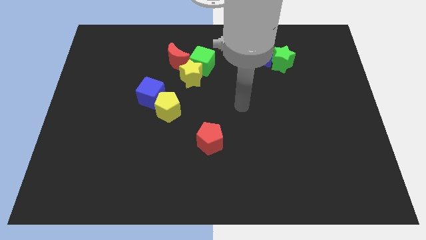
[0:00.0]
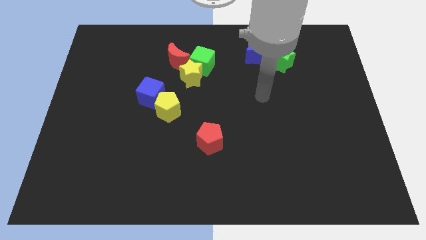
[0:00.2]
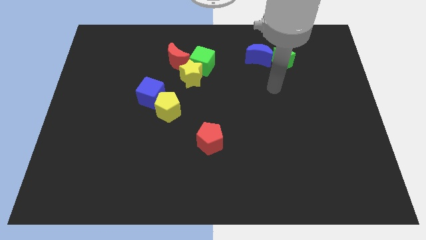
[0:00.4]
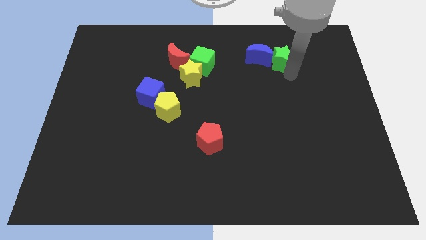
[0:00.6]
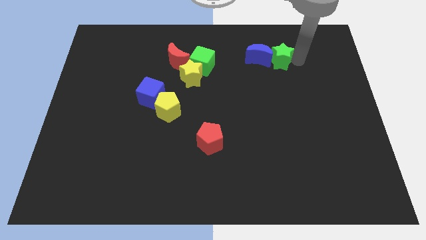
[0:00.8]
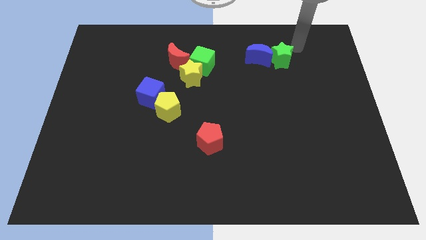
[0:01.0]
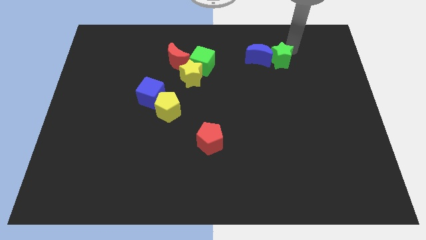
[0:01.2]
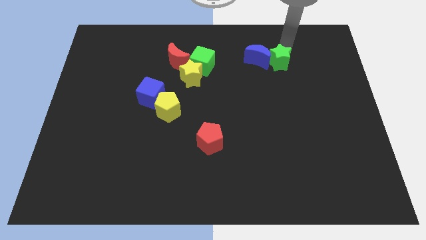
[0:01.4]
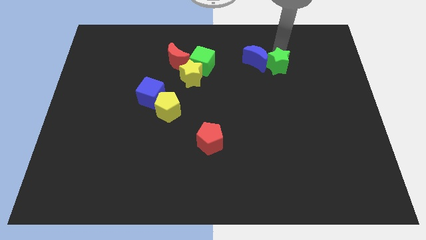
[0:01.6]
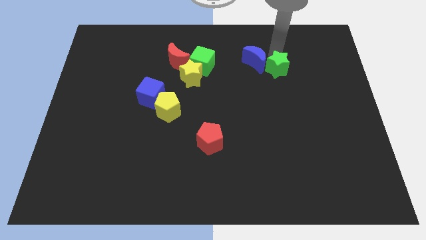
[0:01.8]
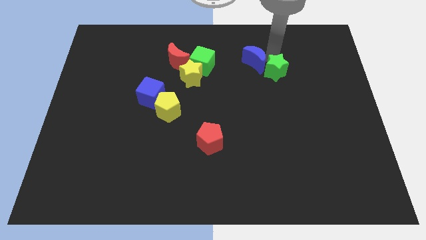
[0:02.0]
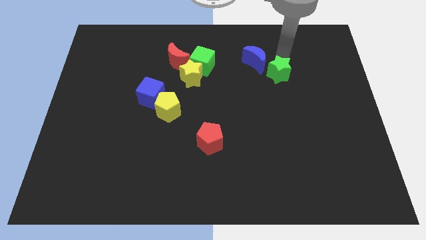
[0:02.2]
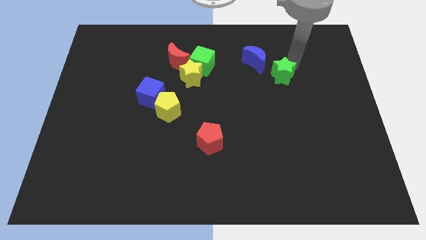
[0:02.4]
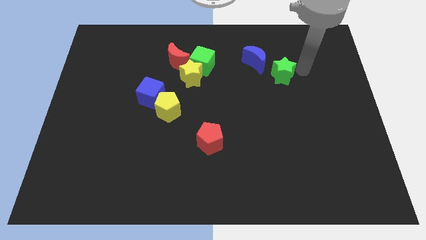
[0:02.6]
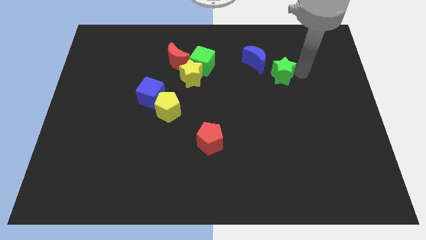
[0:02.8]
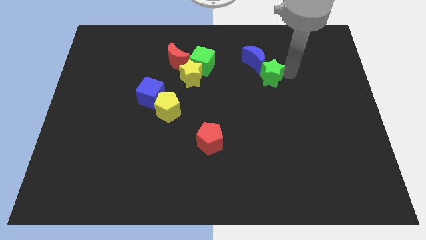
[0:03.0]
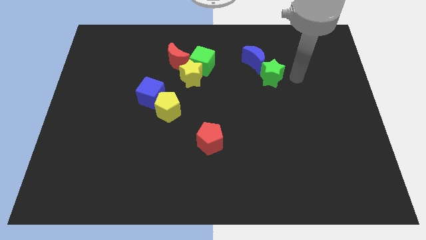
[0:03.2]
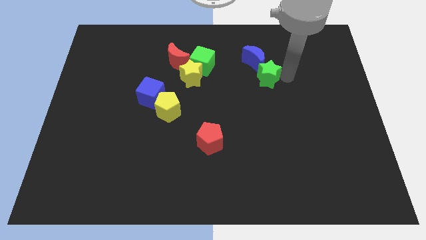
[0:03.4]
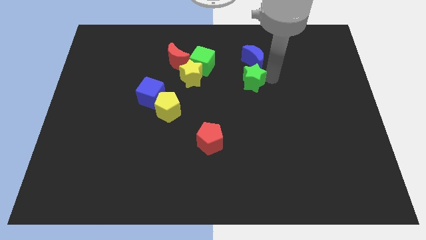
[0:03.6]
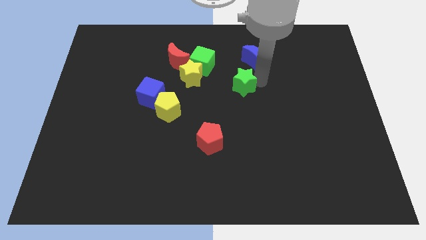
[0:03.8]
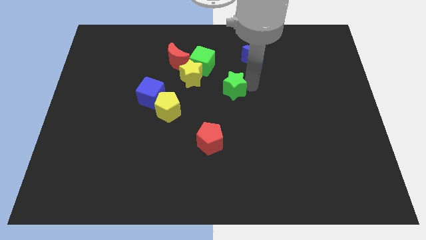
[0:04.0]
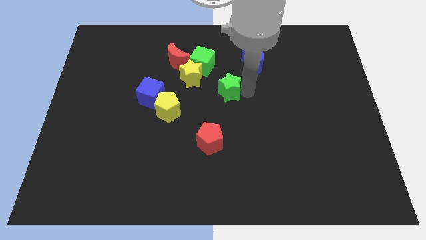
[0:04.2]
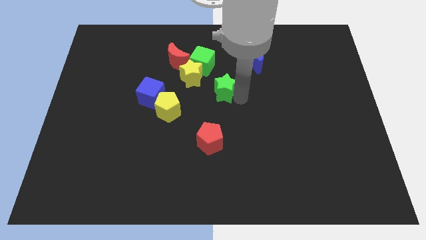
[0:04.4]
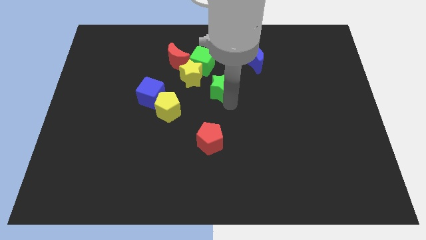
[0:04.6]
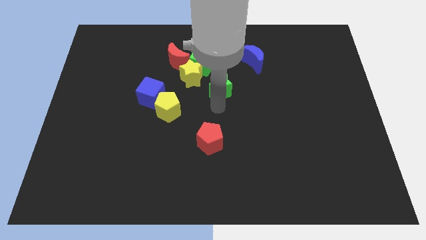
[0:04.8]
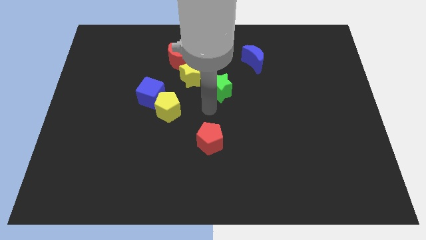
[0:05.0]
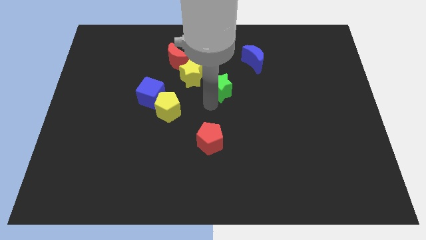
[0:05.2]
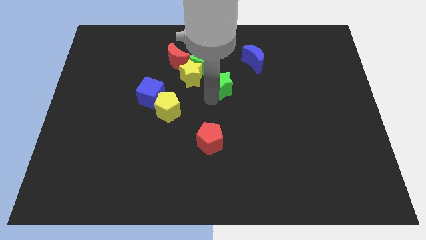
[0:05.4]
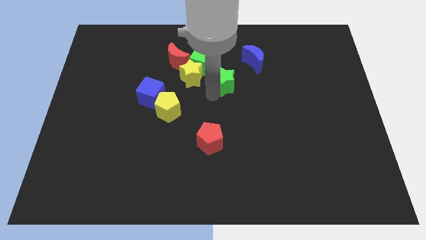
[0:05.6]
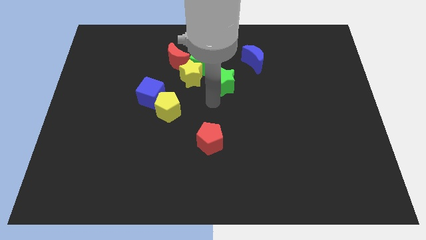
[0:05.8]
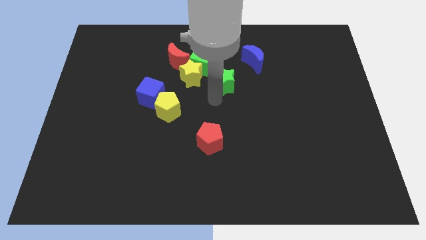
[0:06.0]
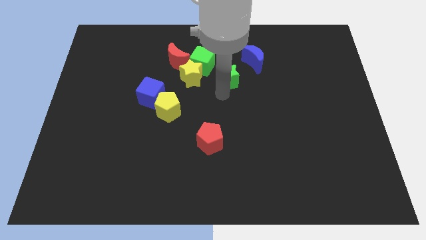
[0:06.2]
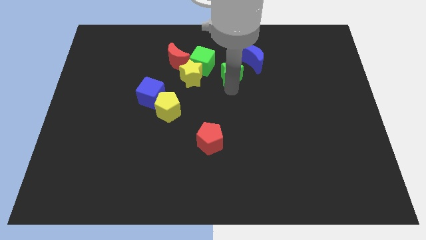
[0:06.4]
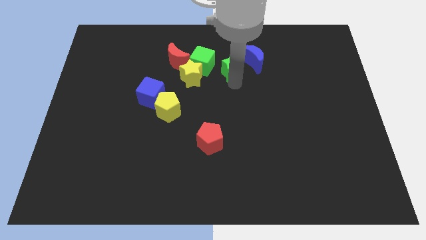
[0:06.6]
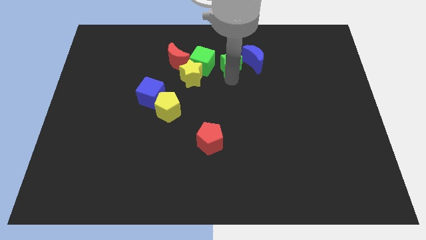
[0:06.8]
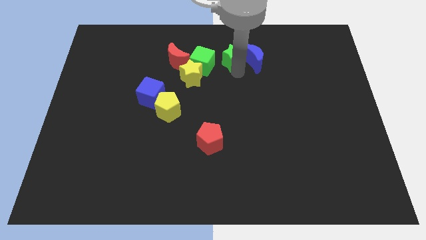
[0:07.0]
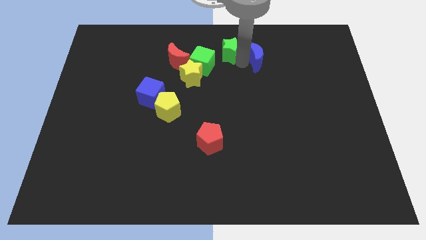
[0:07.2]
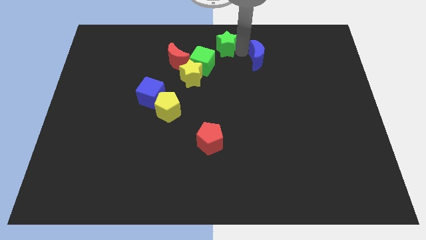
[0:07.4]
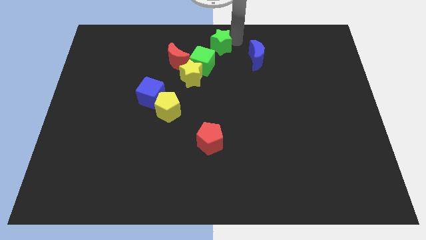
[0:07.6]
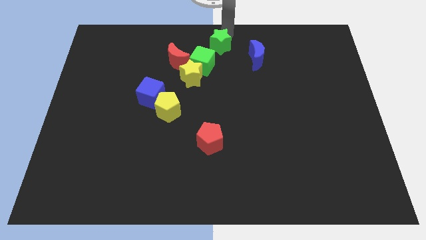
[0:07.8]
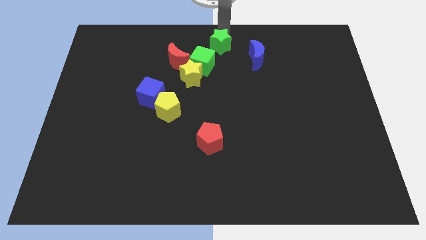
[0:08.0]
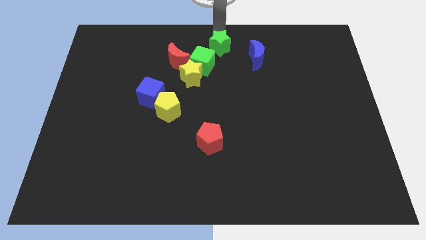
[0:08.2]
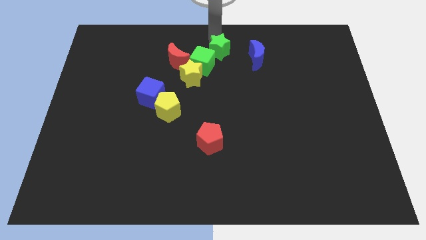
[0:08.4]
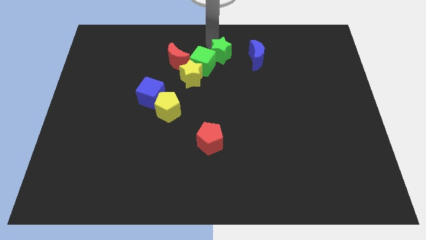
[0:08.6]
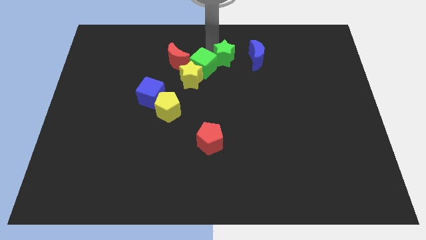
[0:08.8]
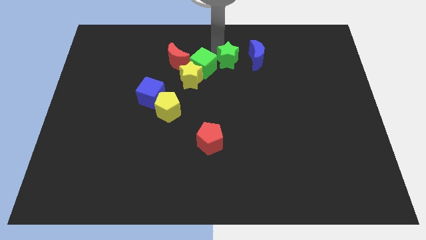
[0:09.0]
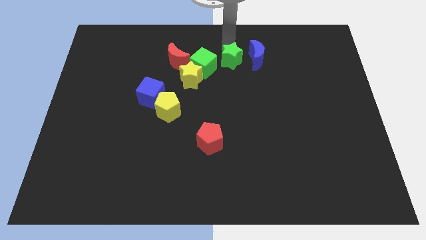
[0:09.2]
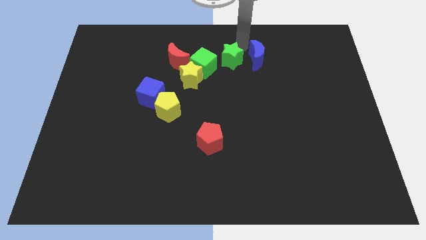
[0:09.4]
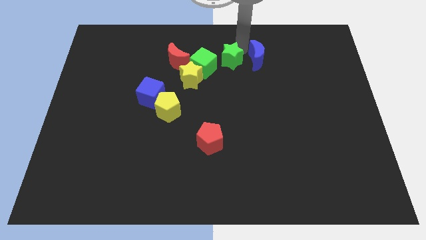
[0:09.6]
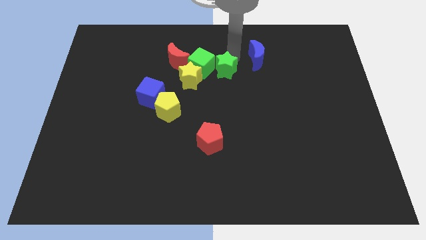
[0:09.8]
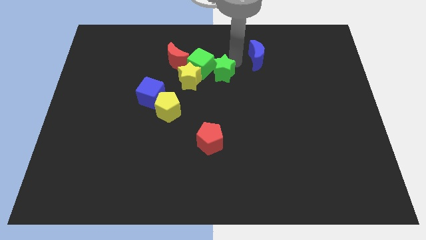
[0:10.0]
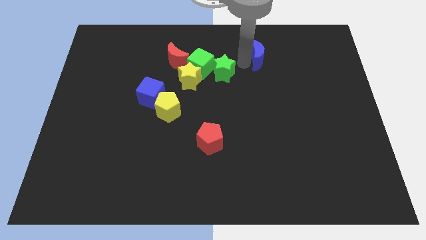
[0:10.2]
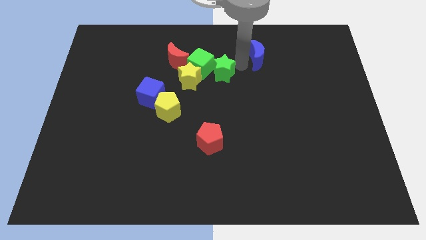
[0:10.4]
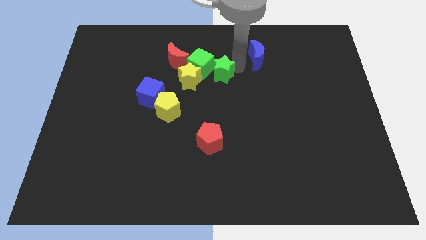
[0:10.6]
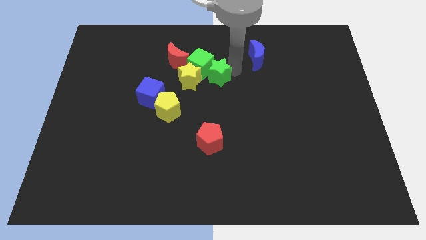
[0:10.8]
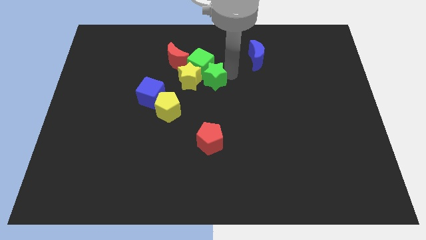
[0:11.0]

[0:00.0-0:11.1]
slide the green star to the yellow star

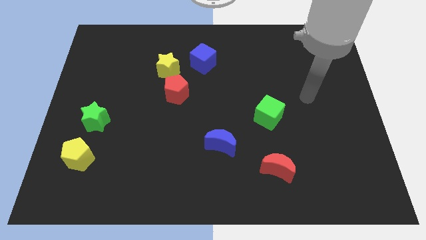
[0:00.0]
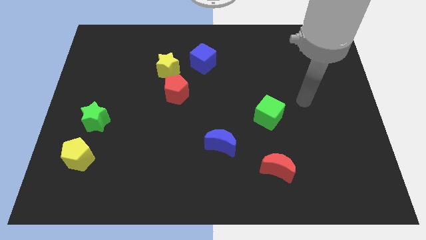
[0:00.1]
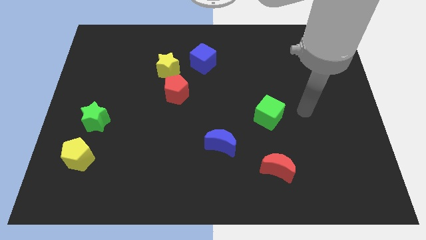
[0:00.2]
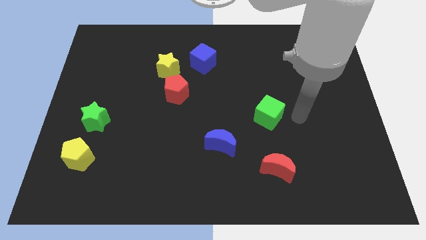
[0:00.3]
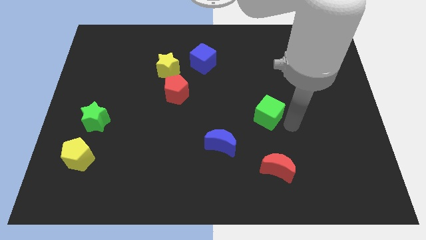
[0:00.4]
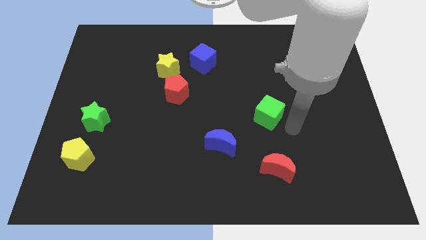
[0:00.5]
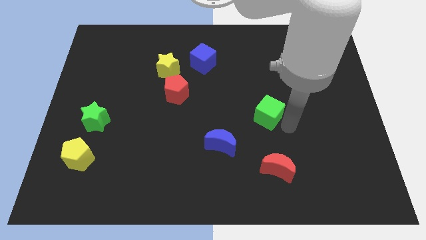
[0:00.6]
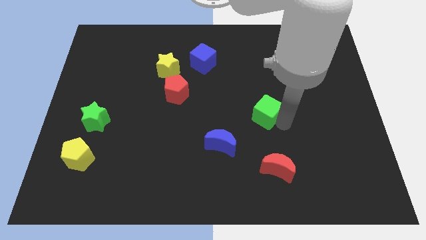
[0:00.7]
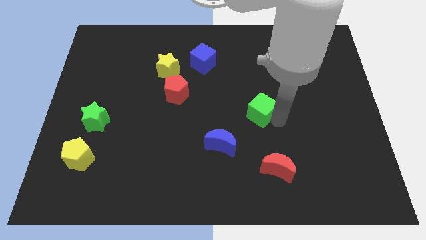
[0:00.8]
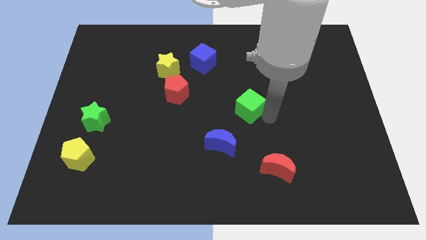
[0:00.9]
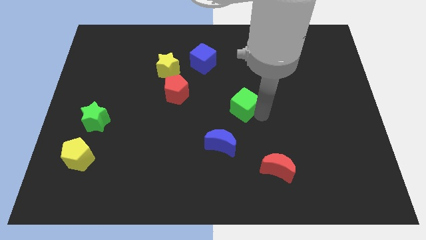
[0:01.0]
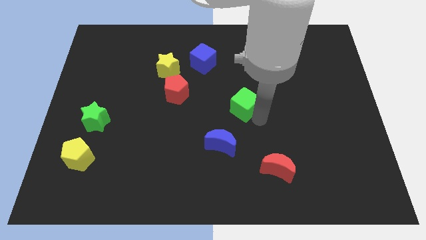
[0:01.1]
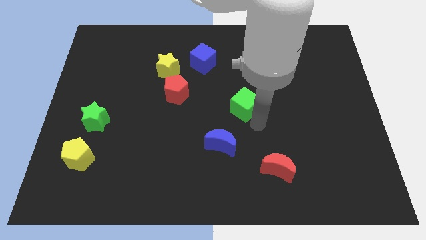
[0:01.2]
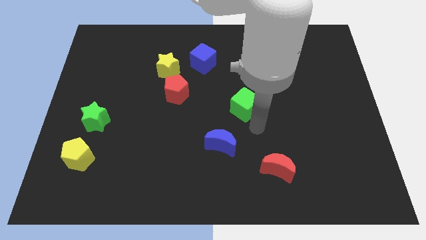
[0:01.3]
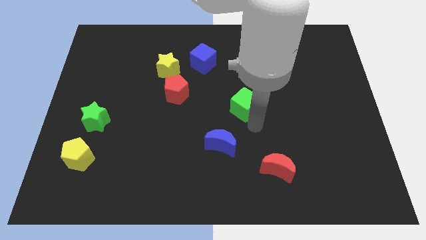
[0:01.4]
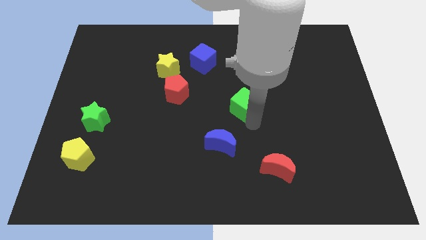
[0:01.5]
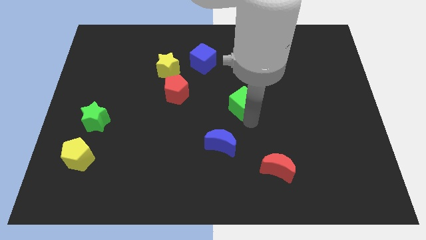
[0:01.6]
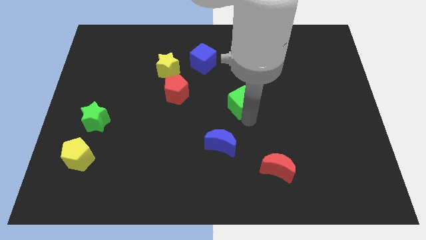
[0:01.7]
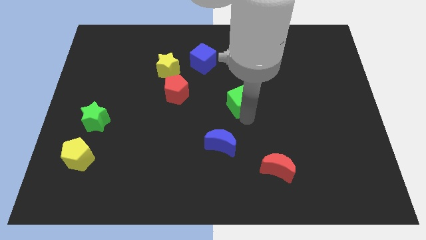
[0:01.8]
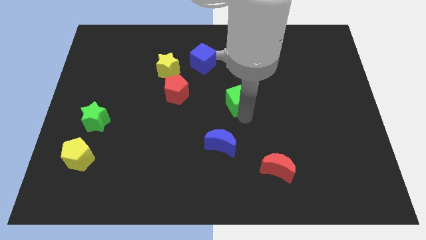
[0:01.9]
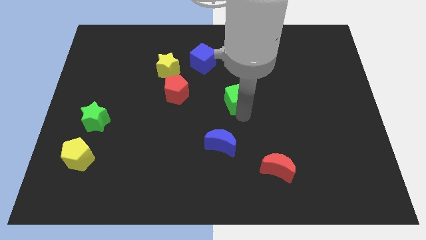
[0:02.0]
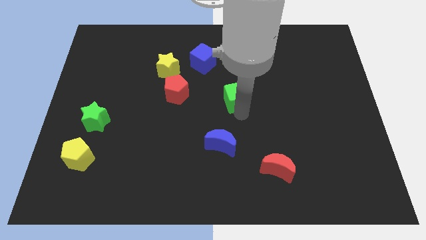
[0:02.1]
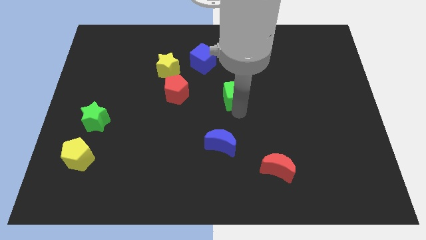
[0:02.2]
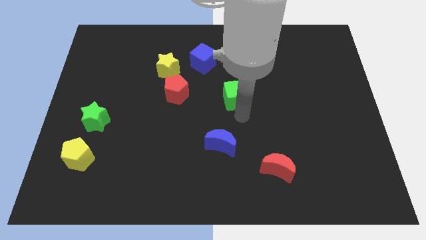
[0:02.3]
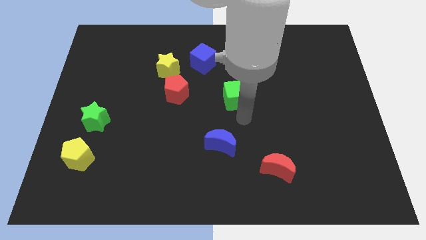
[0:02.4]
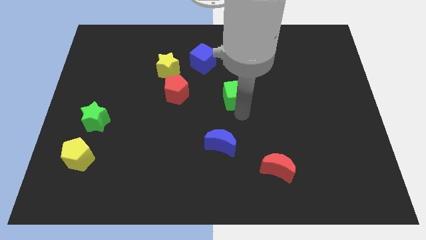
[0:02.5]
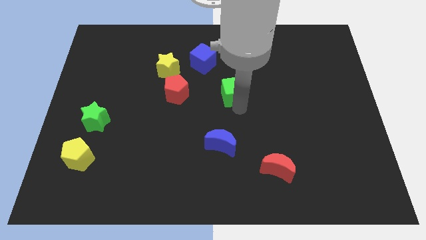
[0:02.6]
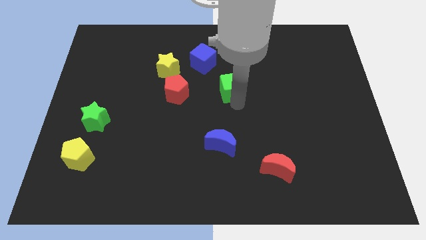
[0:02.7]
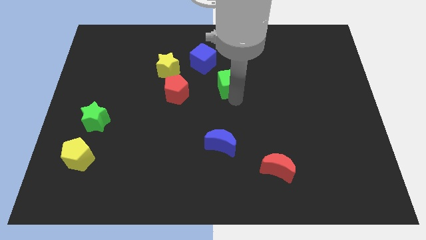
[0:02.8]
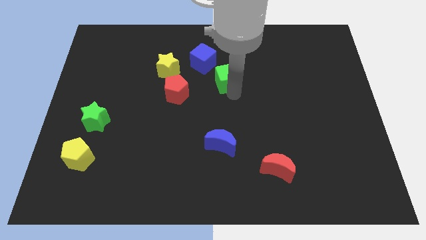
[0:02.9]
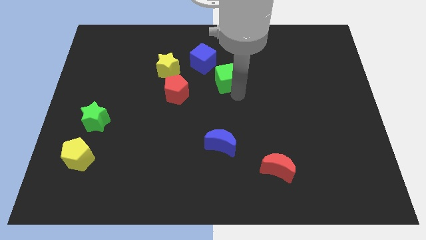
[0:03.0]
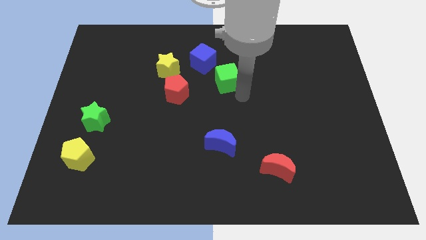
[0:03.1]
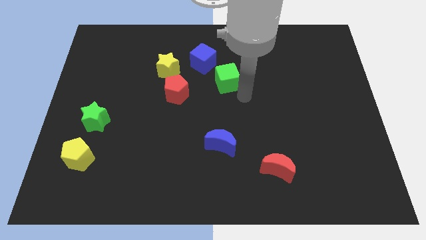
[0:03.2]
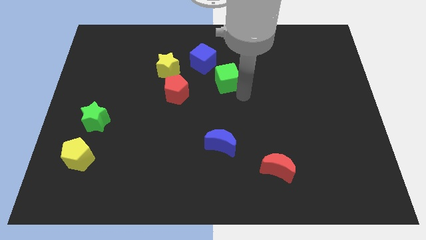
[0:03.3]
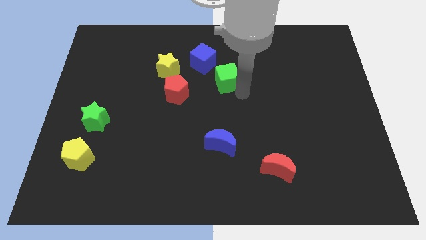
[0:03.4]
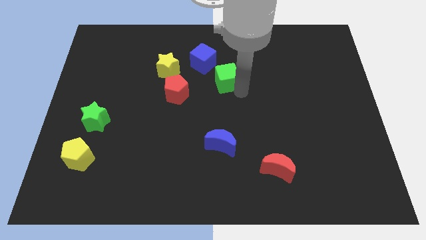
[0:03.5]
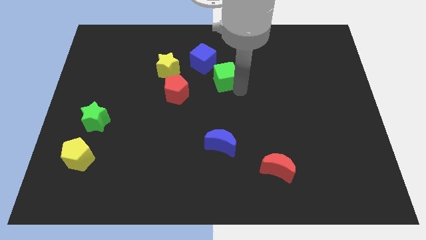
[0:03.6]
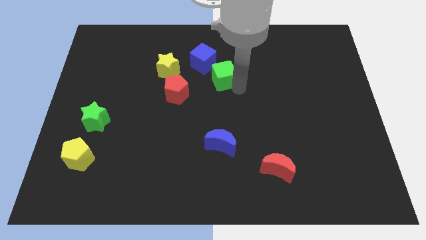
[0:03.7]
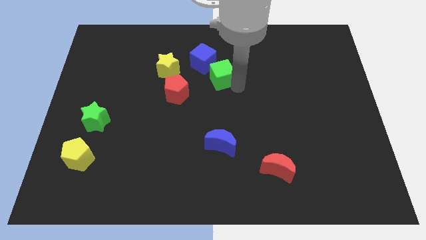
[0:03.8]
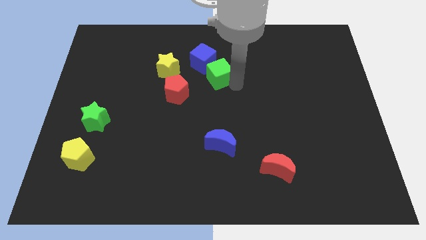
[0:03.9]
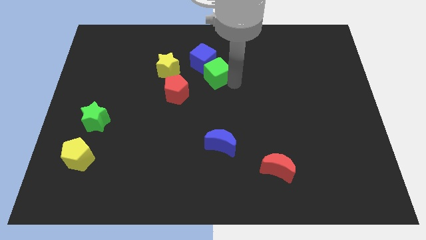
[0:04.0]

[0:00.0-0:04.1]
push the green cube close to the blue cube
